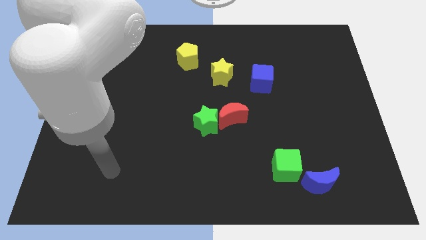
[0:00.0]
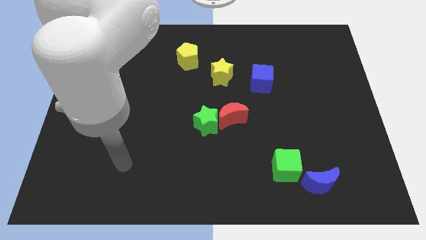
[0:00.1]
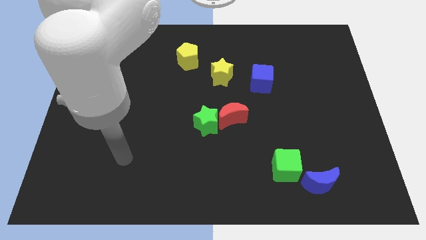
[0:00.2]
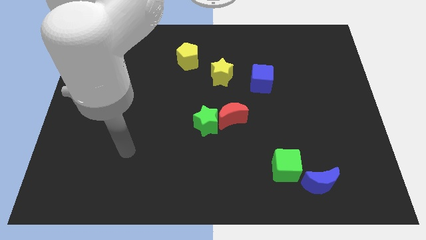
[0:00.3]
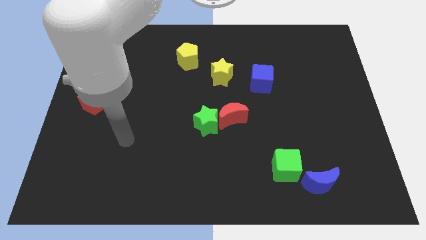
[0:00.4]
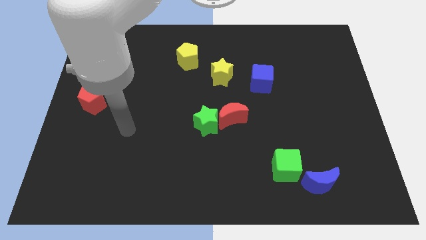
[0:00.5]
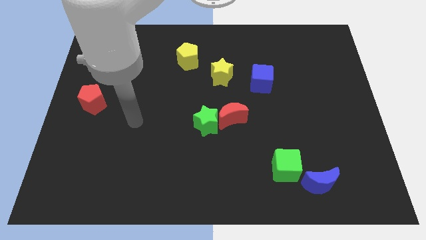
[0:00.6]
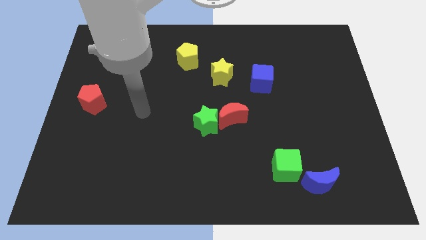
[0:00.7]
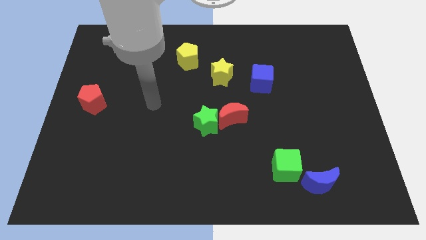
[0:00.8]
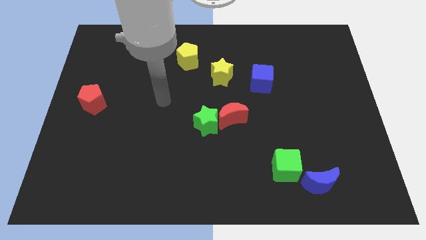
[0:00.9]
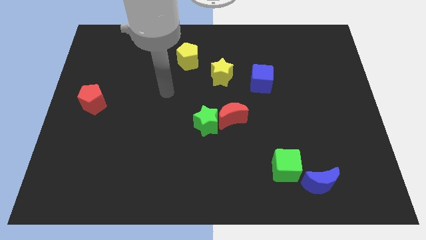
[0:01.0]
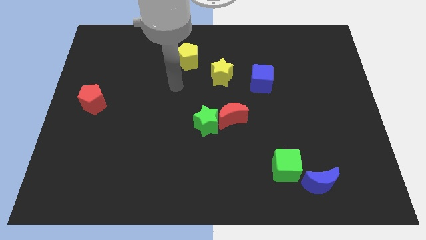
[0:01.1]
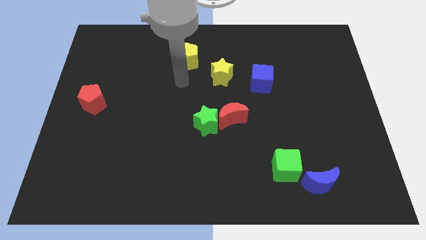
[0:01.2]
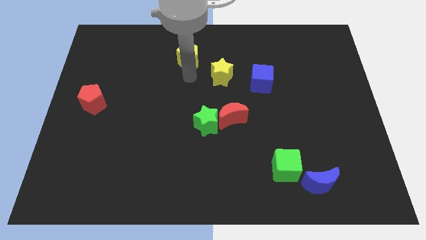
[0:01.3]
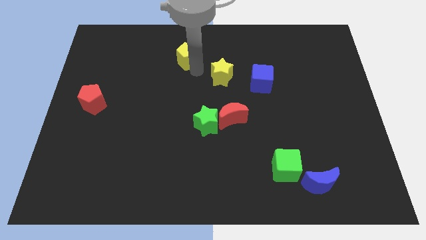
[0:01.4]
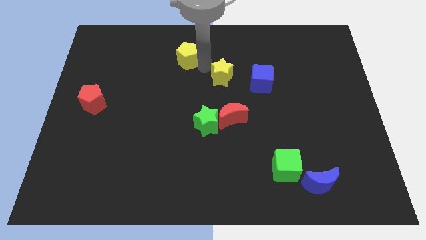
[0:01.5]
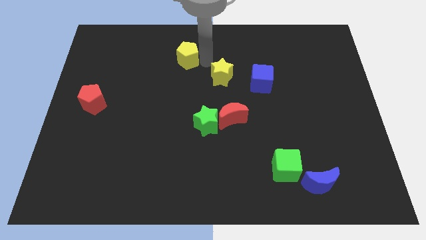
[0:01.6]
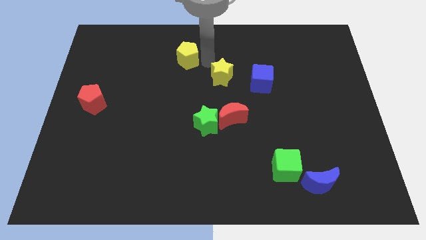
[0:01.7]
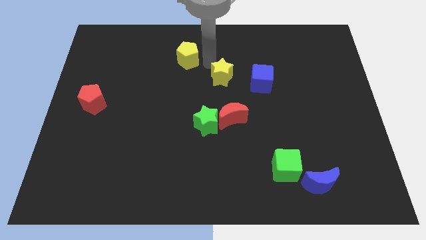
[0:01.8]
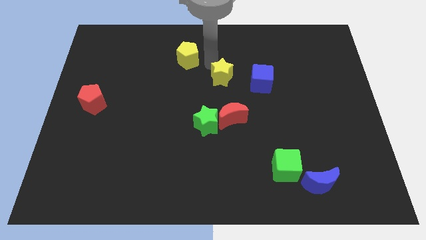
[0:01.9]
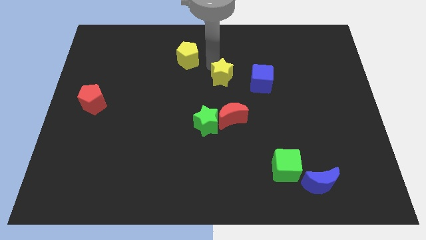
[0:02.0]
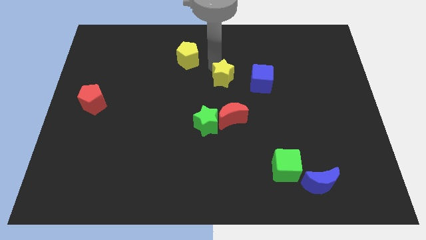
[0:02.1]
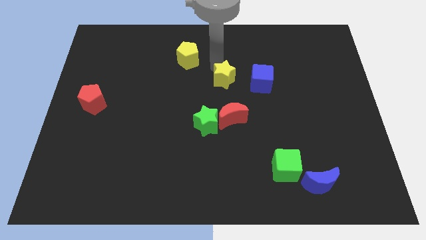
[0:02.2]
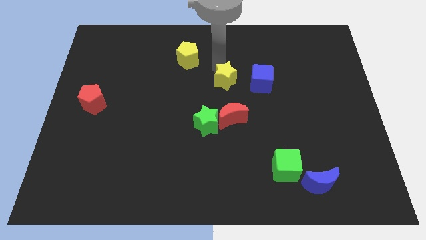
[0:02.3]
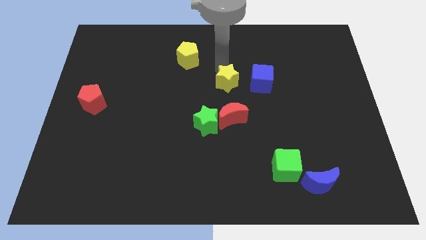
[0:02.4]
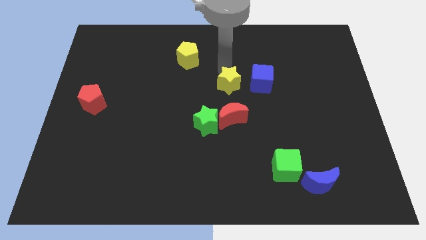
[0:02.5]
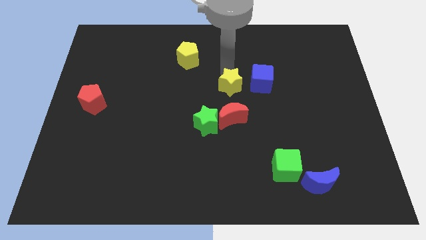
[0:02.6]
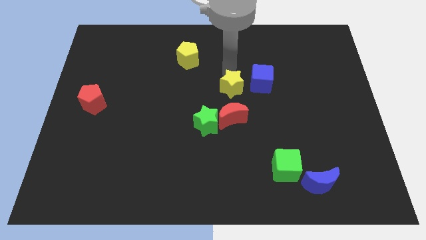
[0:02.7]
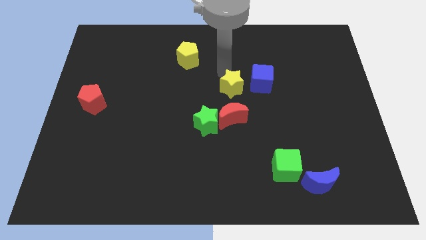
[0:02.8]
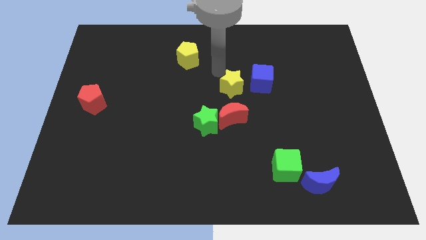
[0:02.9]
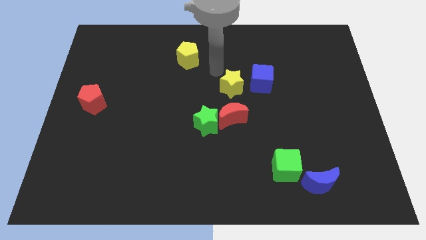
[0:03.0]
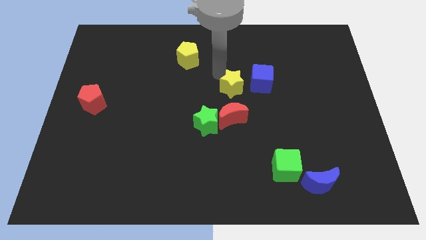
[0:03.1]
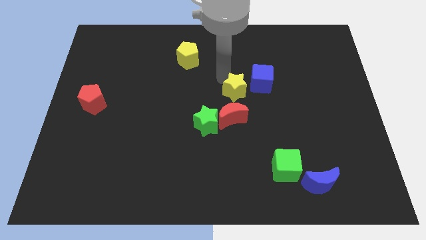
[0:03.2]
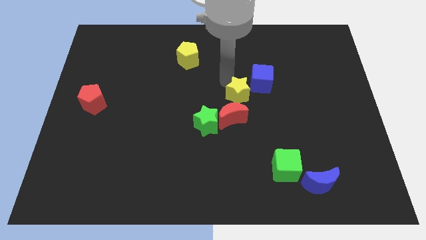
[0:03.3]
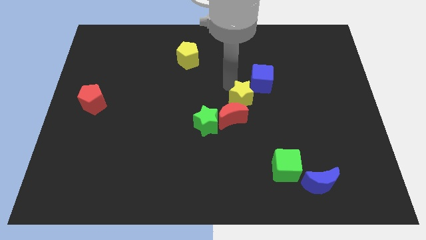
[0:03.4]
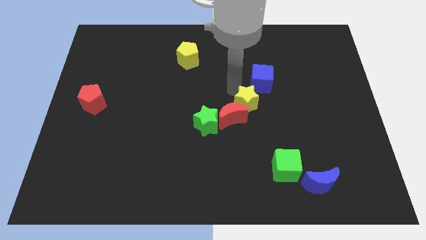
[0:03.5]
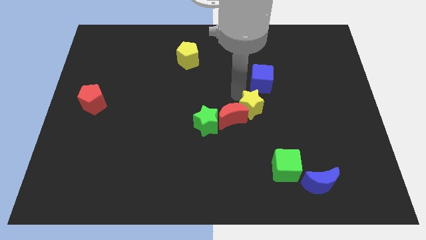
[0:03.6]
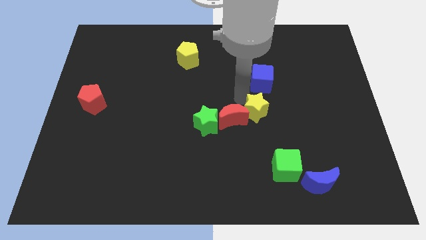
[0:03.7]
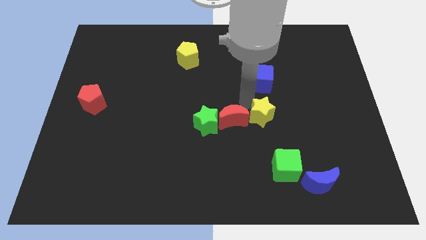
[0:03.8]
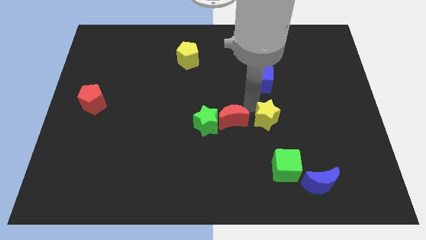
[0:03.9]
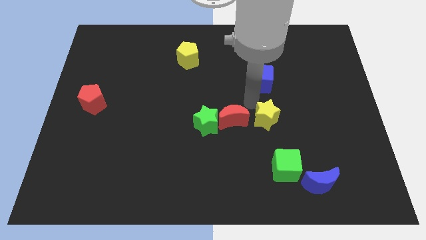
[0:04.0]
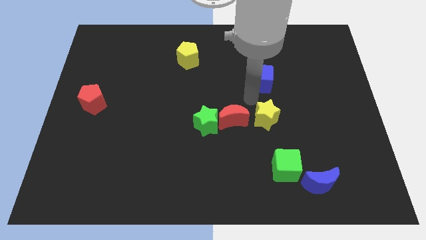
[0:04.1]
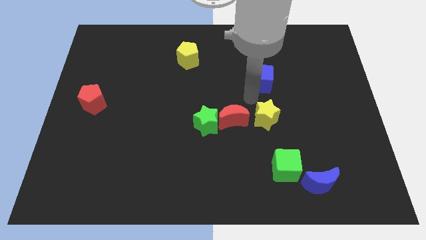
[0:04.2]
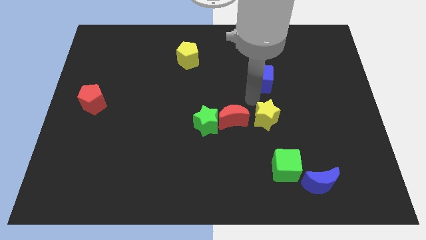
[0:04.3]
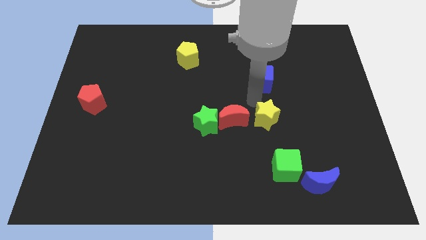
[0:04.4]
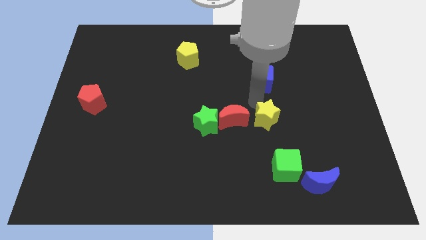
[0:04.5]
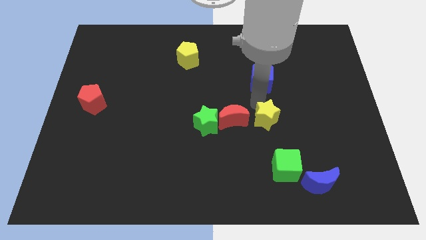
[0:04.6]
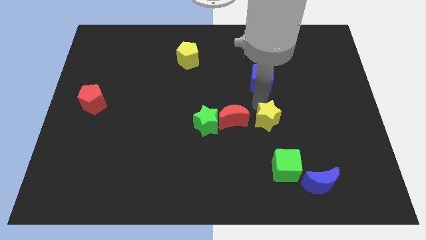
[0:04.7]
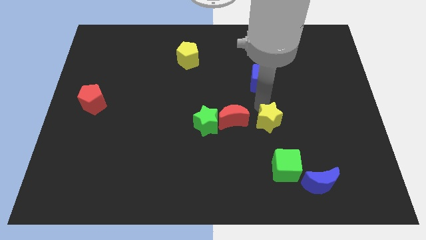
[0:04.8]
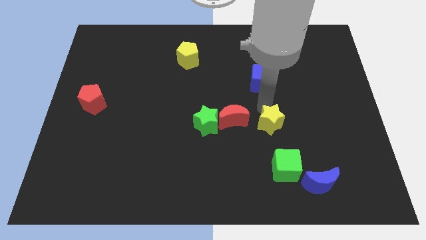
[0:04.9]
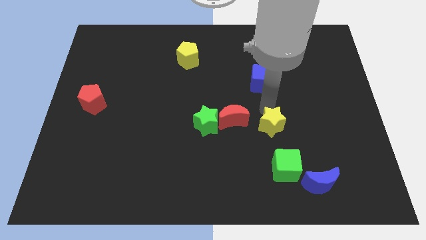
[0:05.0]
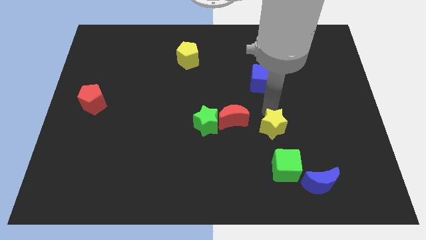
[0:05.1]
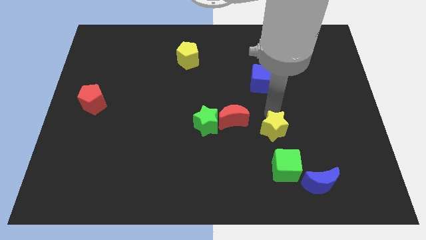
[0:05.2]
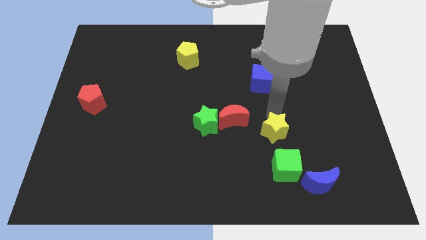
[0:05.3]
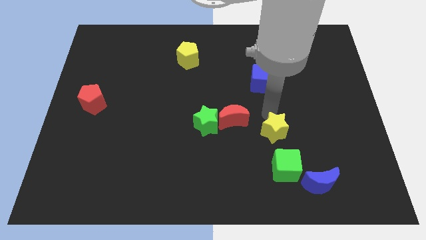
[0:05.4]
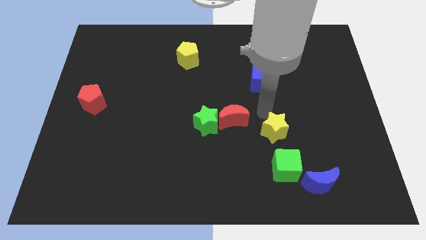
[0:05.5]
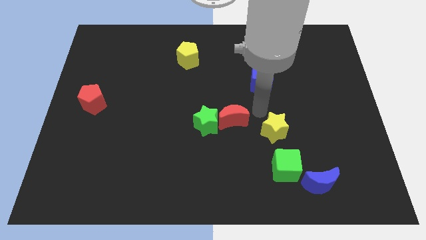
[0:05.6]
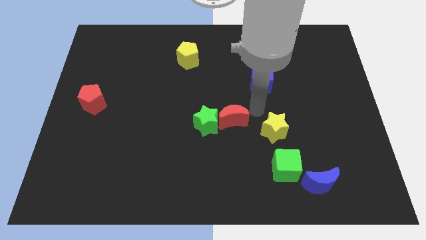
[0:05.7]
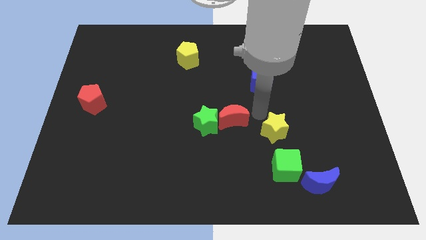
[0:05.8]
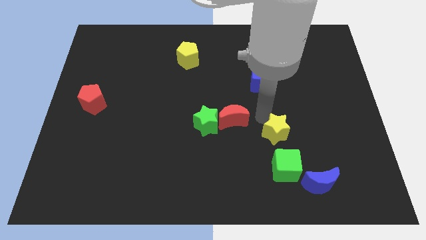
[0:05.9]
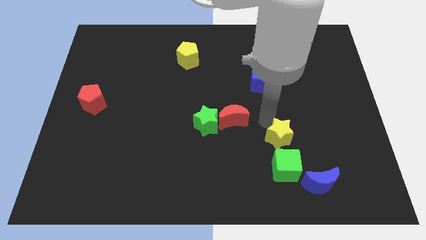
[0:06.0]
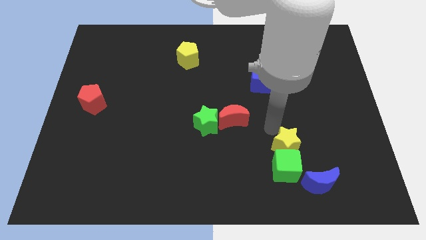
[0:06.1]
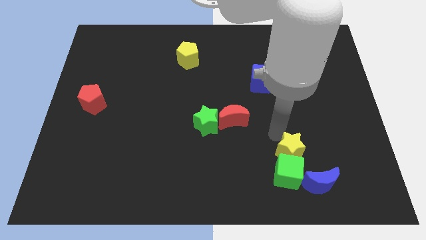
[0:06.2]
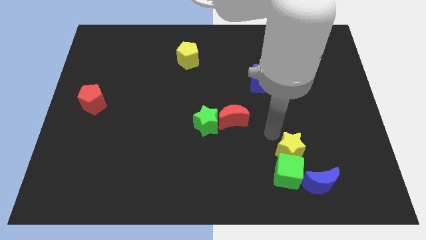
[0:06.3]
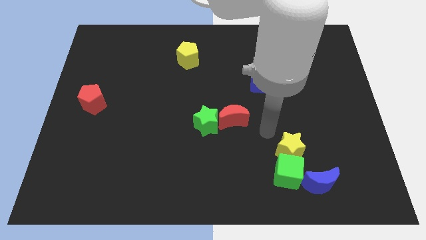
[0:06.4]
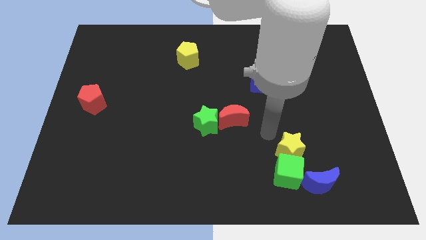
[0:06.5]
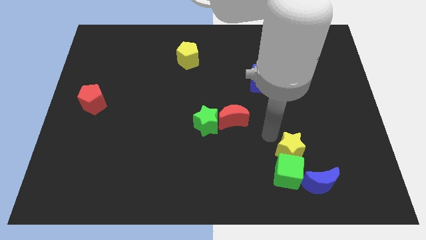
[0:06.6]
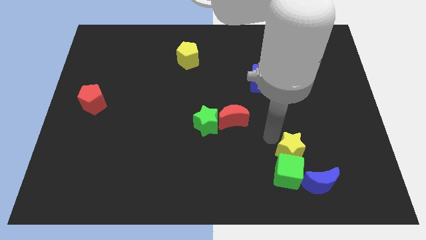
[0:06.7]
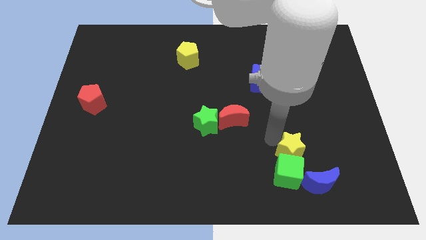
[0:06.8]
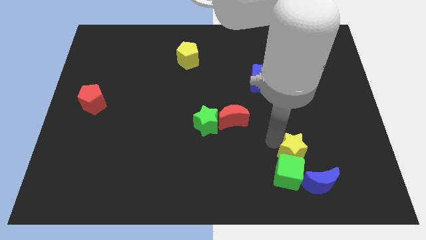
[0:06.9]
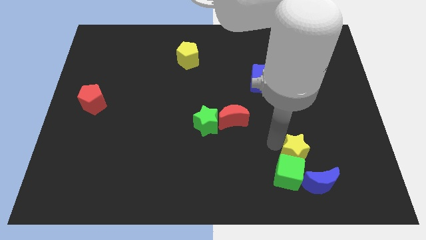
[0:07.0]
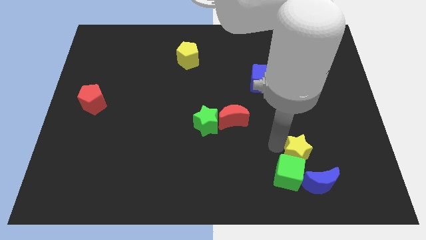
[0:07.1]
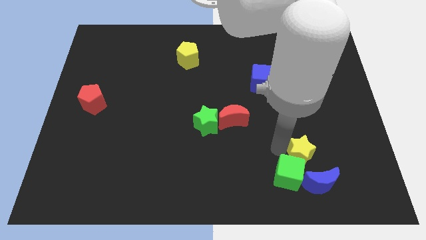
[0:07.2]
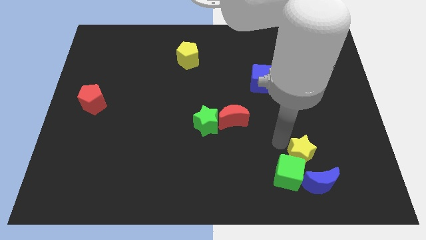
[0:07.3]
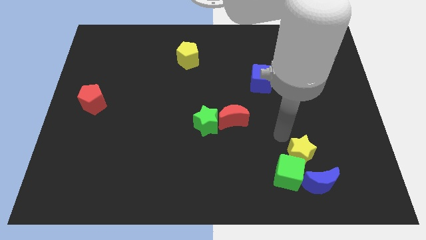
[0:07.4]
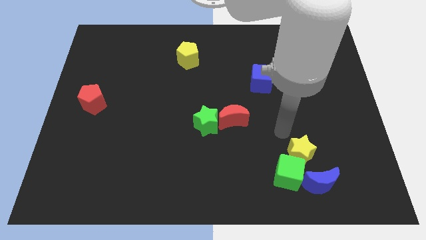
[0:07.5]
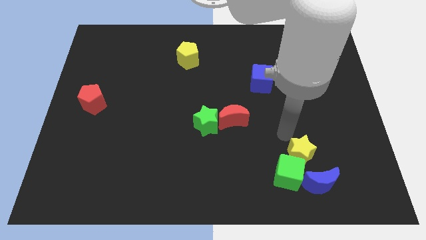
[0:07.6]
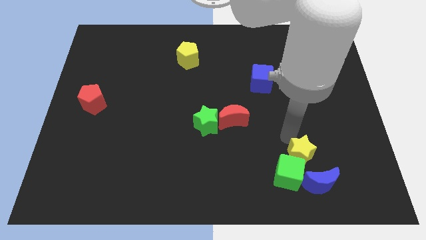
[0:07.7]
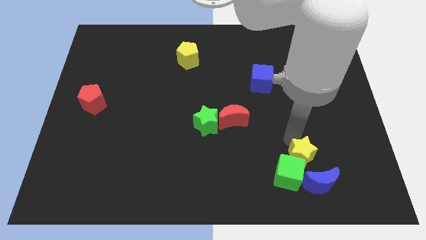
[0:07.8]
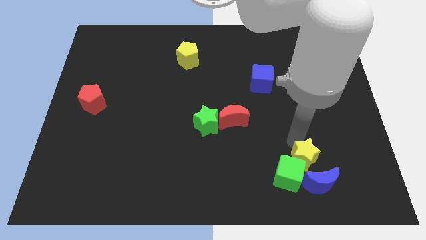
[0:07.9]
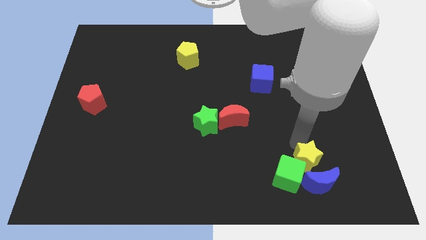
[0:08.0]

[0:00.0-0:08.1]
move the yellow star towards the blue moon
